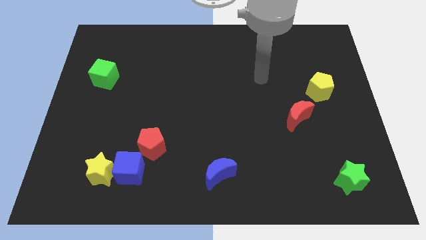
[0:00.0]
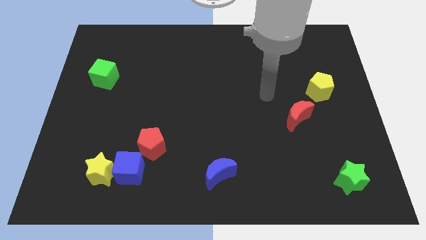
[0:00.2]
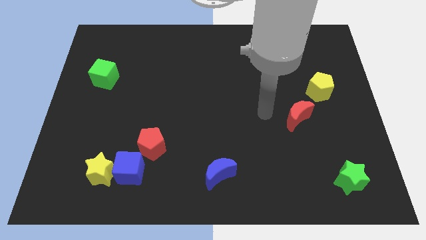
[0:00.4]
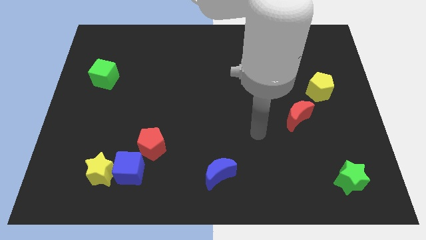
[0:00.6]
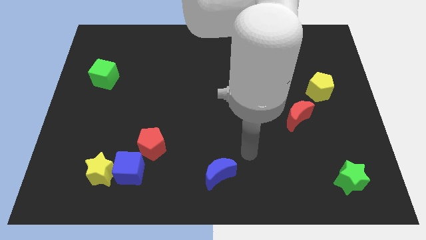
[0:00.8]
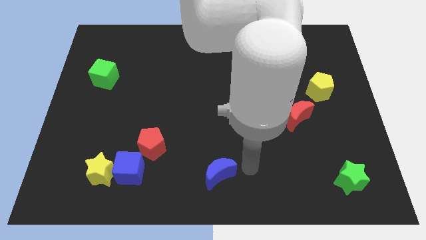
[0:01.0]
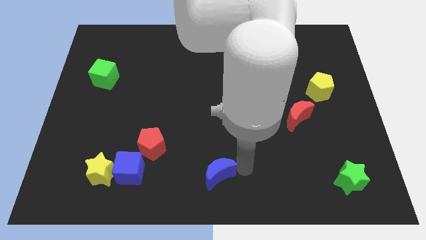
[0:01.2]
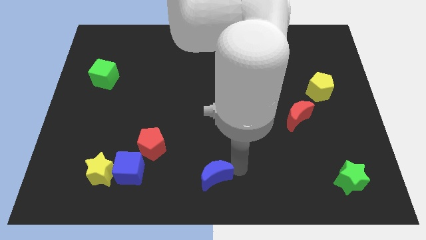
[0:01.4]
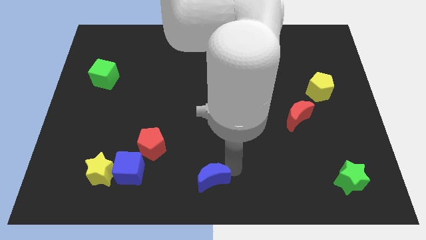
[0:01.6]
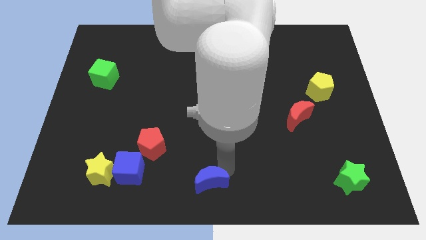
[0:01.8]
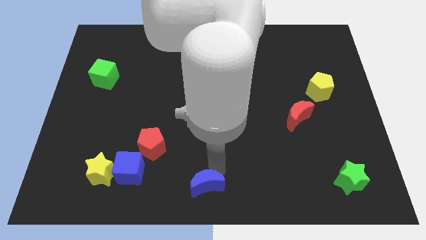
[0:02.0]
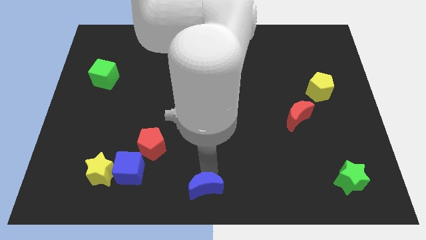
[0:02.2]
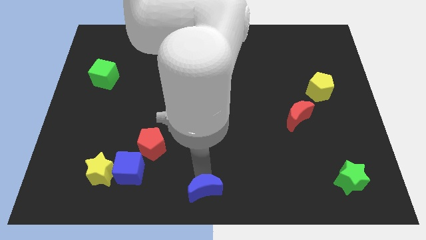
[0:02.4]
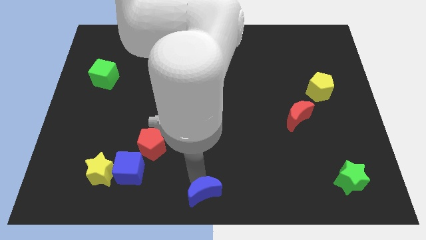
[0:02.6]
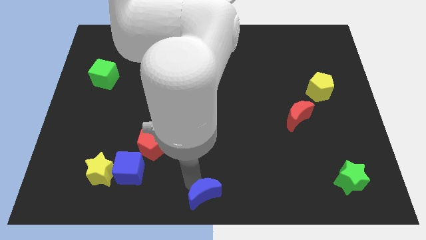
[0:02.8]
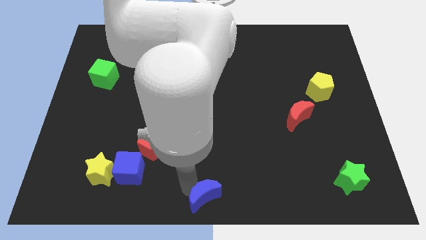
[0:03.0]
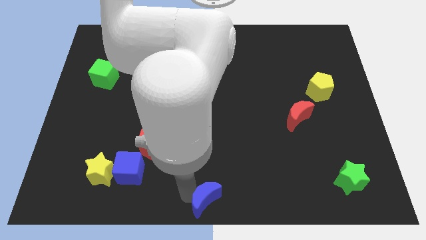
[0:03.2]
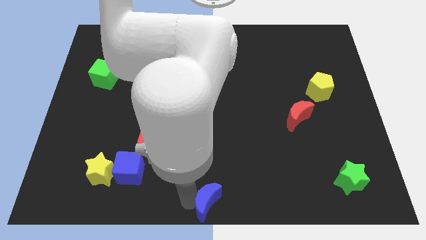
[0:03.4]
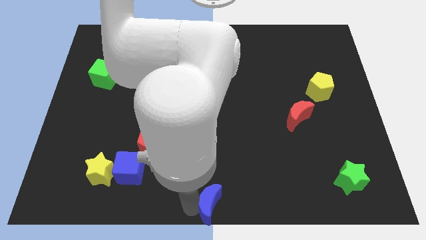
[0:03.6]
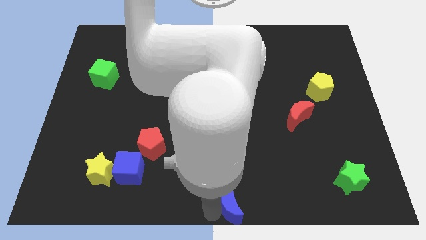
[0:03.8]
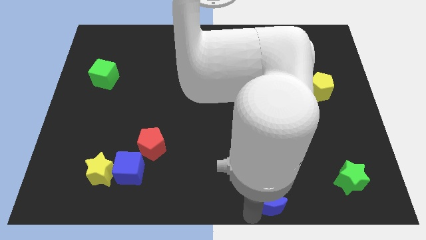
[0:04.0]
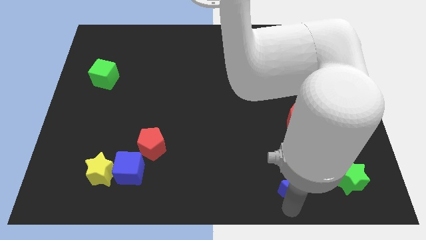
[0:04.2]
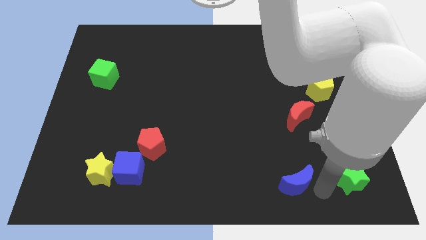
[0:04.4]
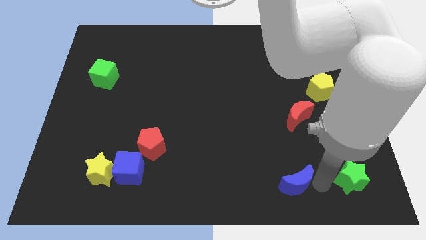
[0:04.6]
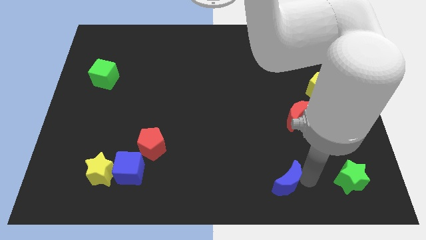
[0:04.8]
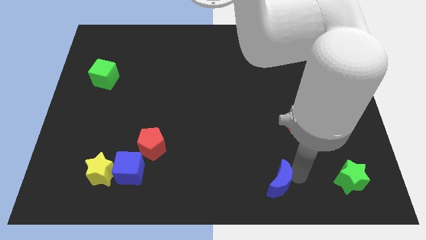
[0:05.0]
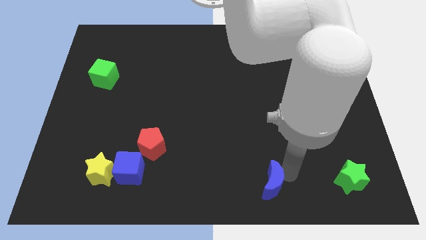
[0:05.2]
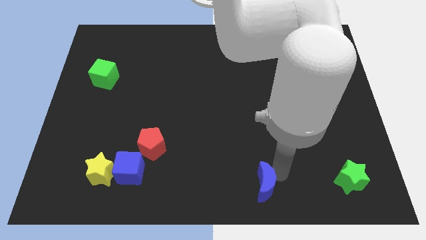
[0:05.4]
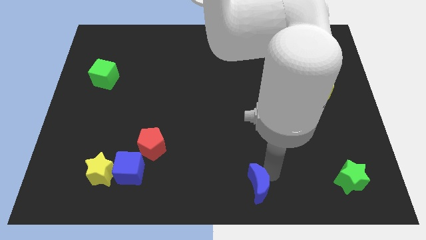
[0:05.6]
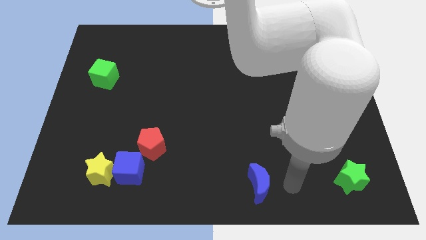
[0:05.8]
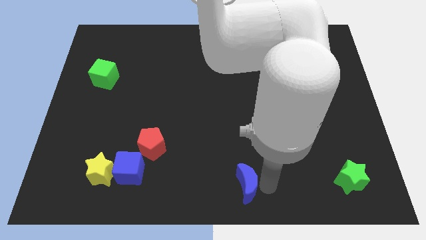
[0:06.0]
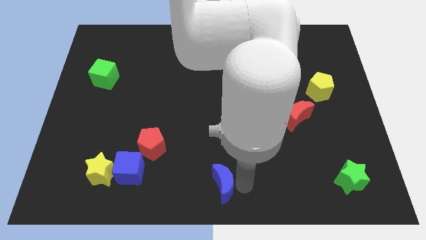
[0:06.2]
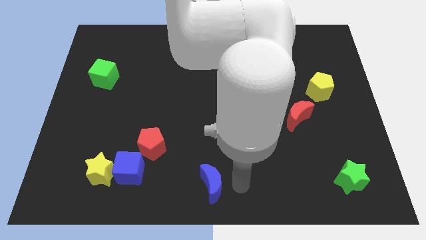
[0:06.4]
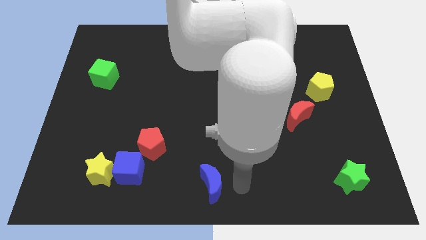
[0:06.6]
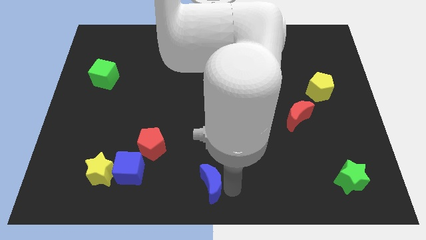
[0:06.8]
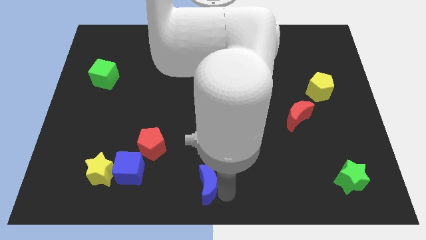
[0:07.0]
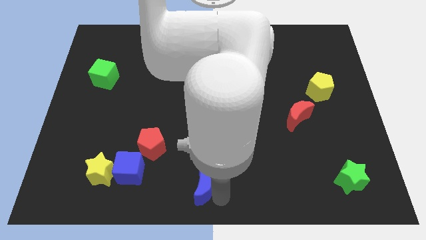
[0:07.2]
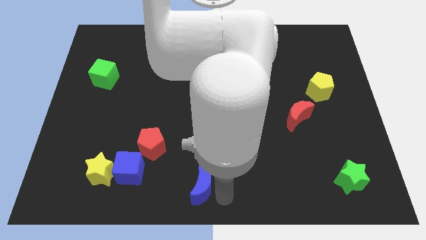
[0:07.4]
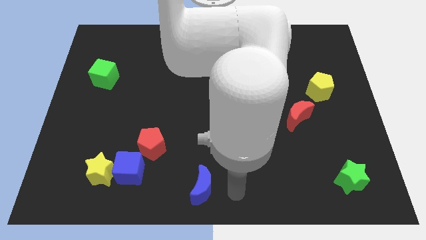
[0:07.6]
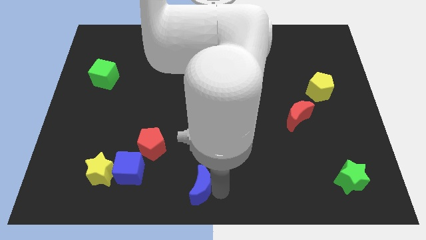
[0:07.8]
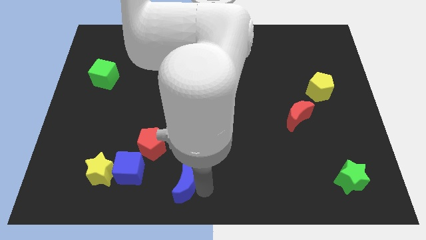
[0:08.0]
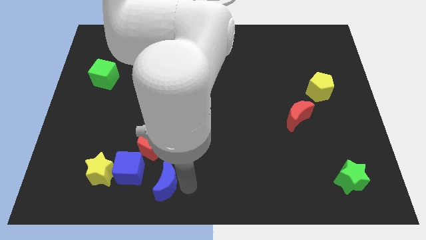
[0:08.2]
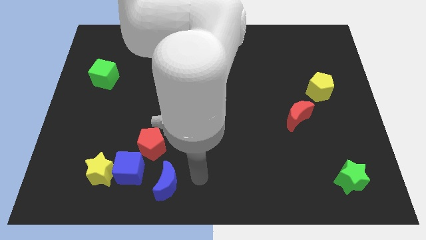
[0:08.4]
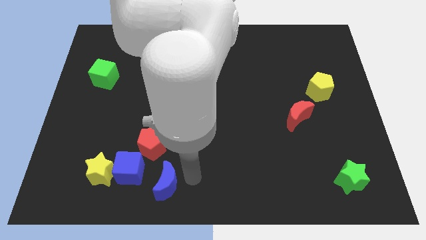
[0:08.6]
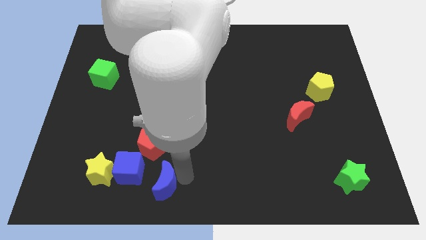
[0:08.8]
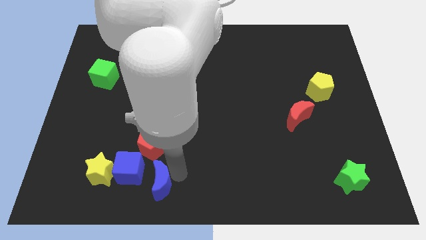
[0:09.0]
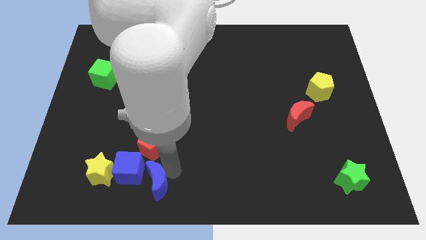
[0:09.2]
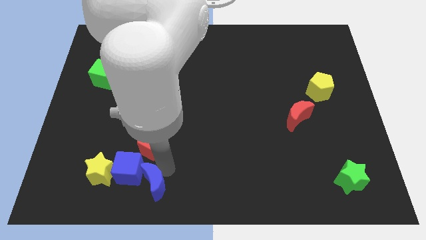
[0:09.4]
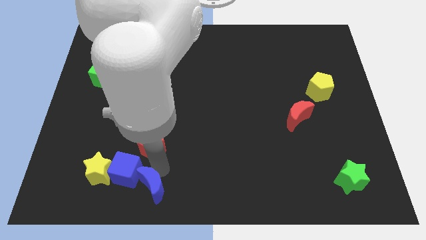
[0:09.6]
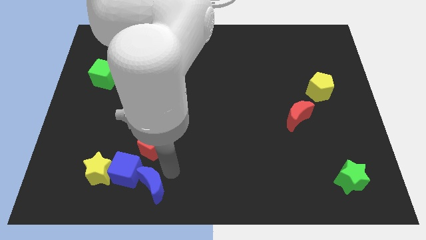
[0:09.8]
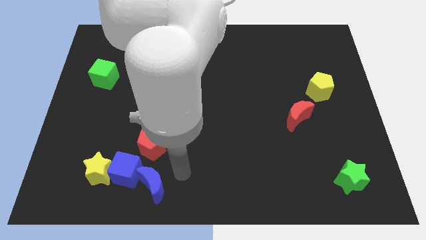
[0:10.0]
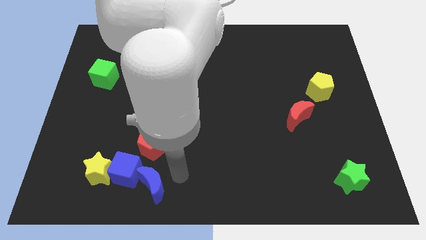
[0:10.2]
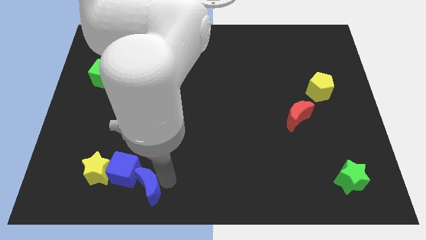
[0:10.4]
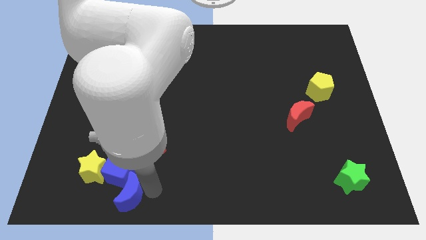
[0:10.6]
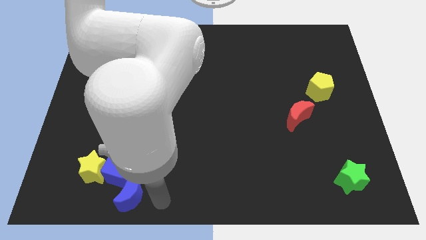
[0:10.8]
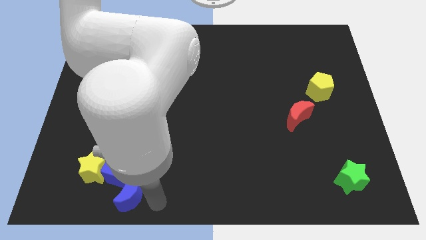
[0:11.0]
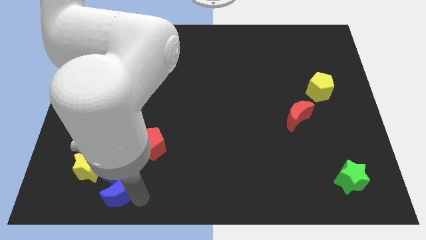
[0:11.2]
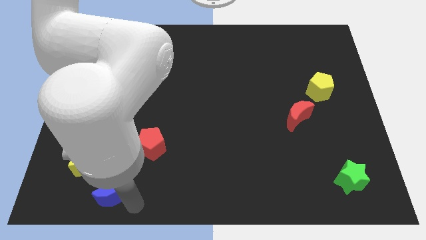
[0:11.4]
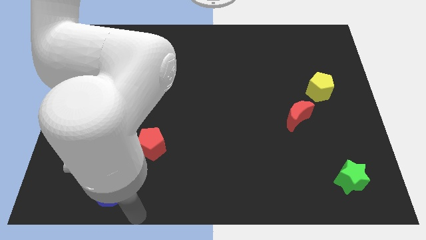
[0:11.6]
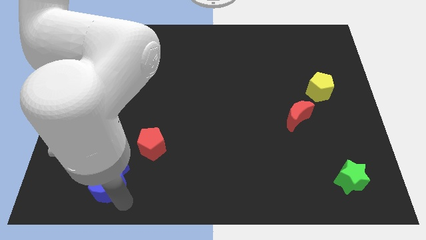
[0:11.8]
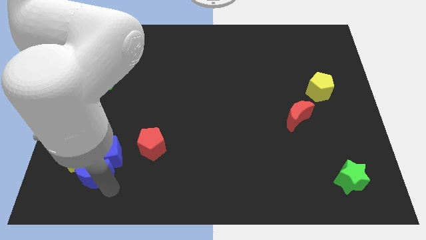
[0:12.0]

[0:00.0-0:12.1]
push the blue moon towards the yellow star

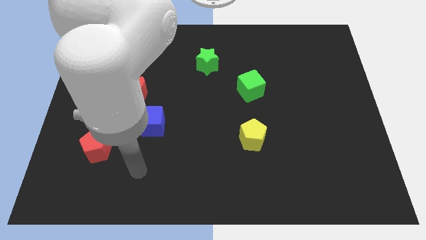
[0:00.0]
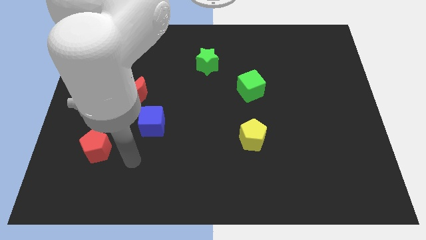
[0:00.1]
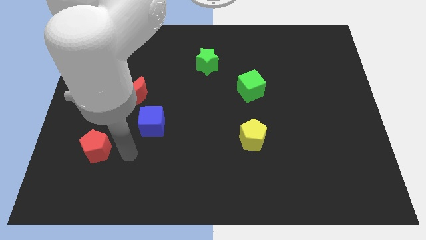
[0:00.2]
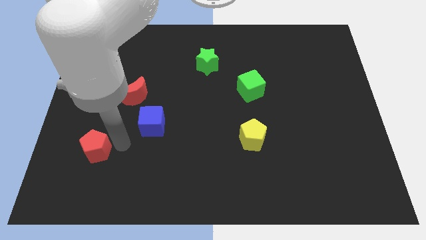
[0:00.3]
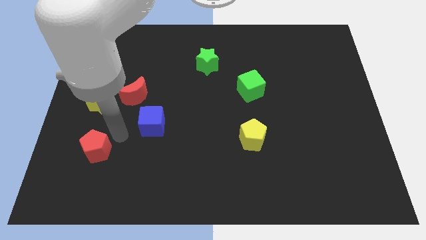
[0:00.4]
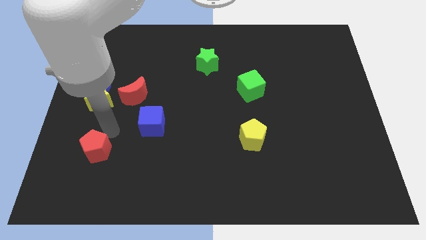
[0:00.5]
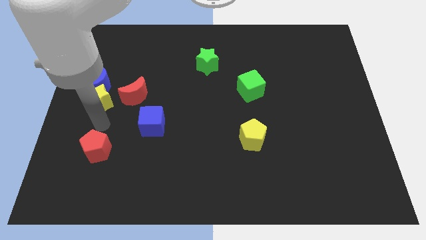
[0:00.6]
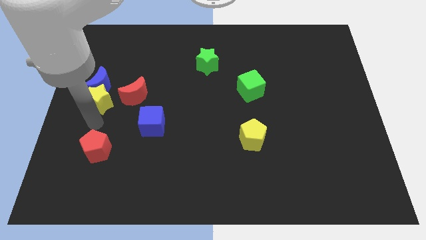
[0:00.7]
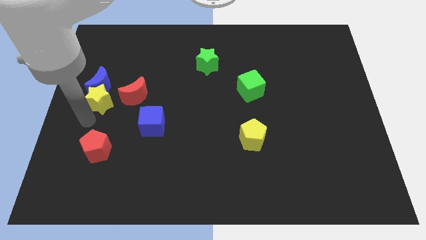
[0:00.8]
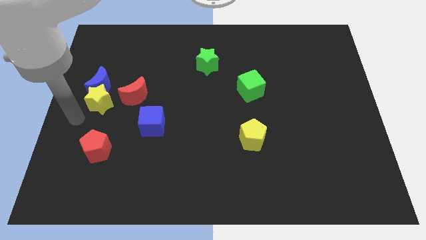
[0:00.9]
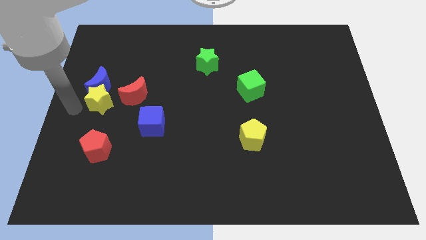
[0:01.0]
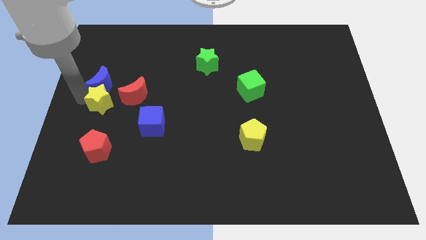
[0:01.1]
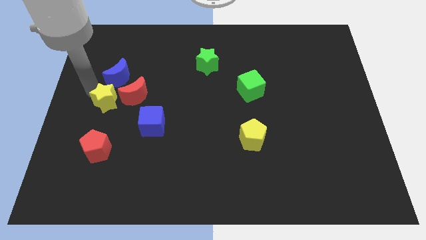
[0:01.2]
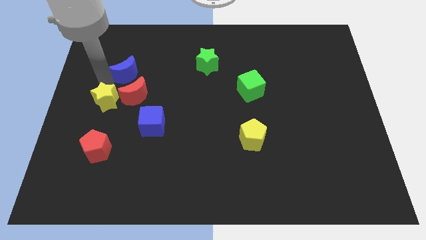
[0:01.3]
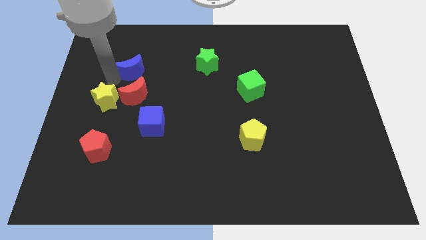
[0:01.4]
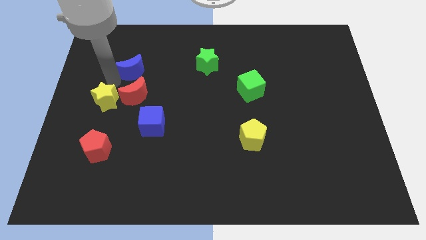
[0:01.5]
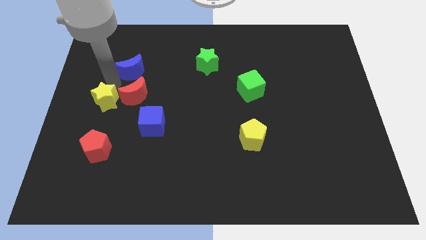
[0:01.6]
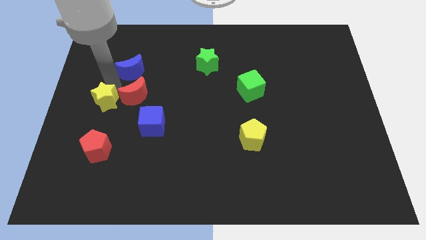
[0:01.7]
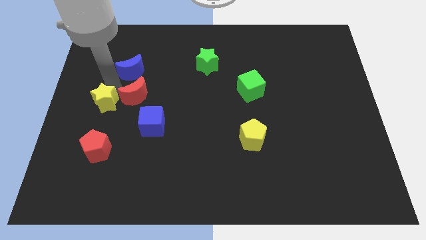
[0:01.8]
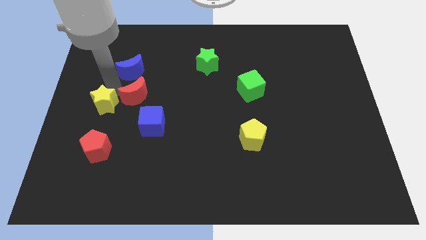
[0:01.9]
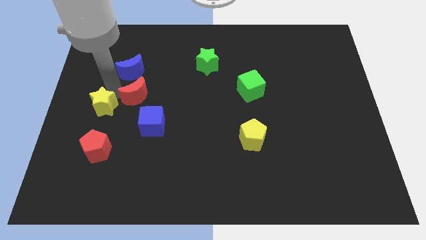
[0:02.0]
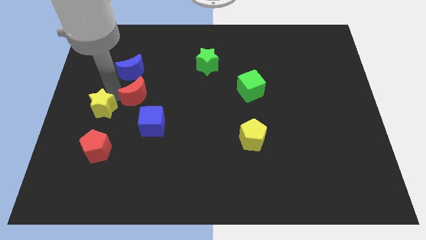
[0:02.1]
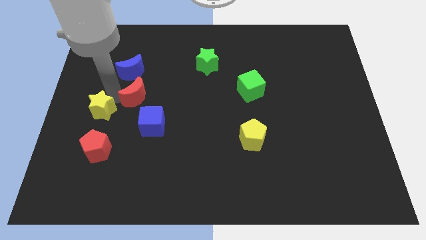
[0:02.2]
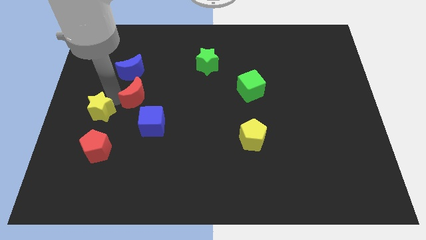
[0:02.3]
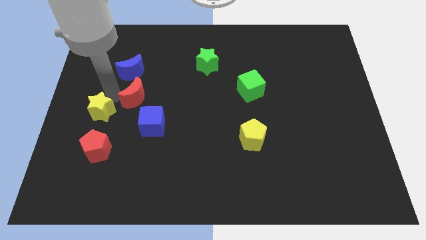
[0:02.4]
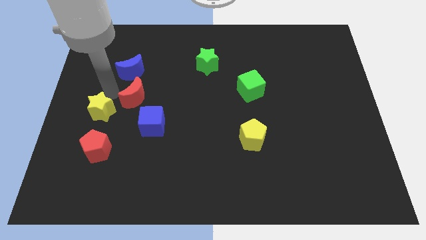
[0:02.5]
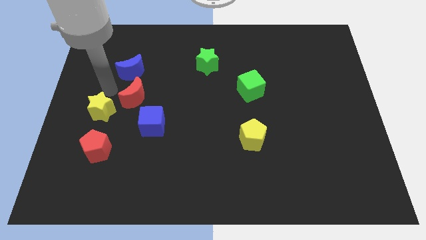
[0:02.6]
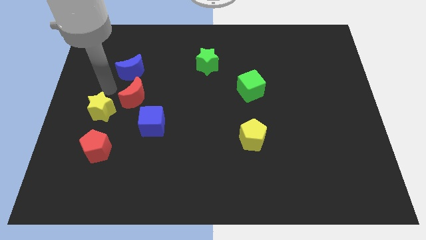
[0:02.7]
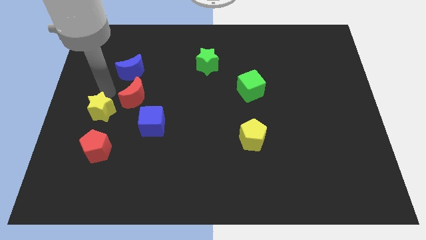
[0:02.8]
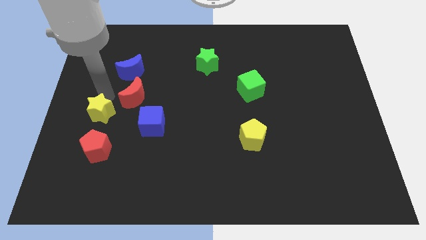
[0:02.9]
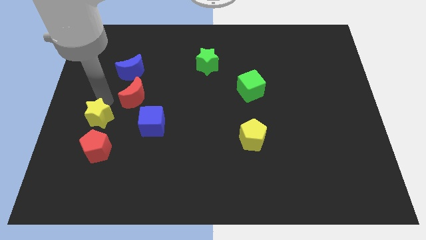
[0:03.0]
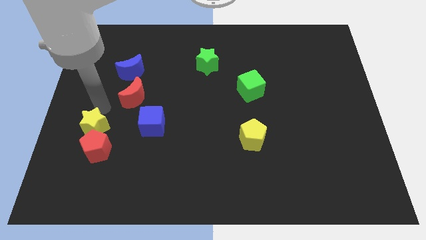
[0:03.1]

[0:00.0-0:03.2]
move the yellow star towards the red pentagon
